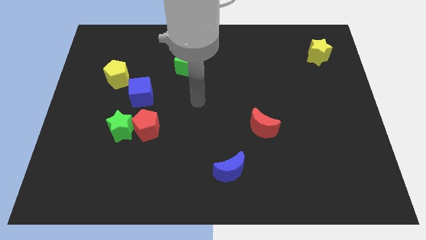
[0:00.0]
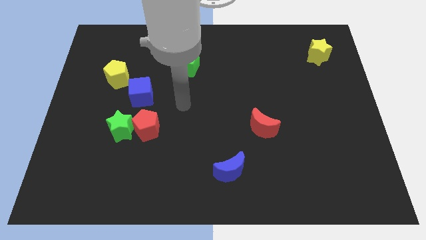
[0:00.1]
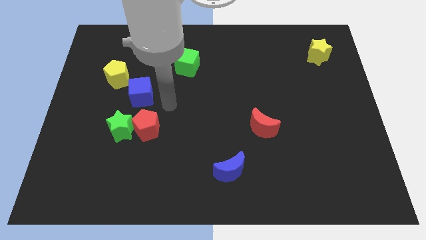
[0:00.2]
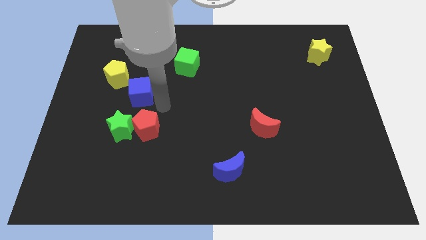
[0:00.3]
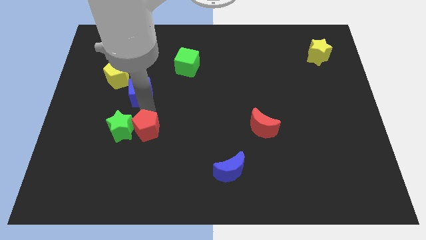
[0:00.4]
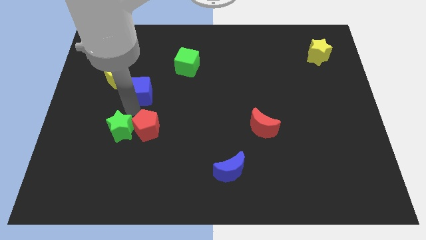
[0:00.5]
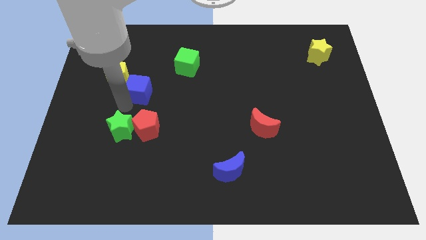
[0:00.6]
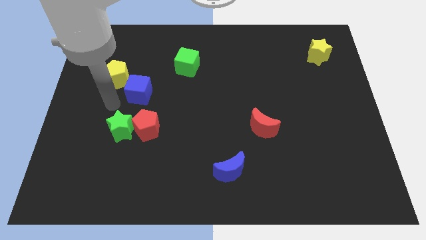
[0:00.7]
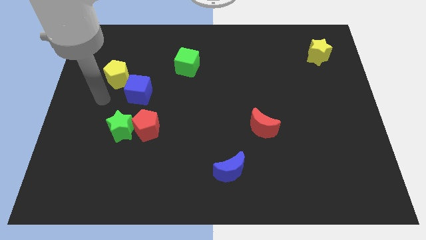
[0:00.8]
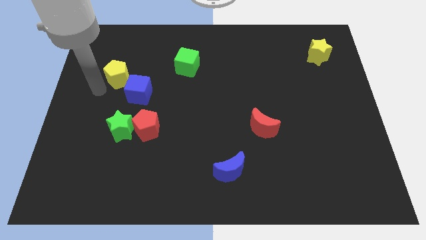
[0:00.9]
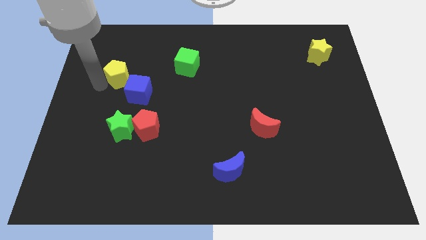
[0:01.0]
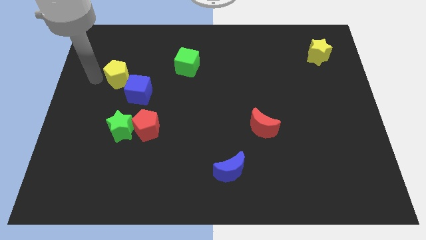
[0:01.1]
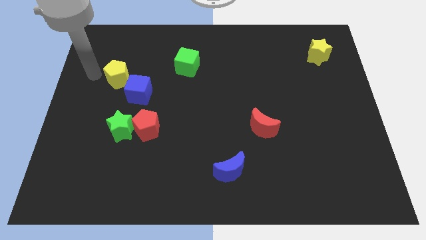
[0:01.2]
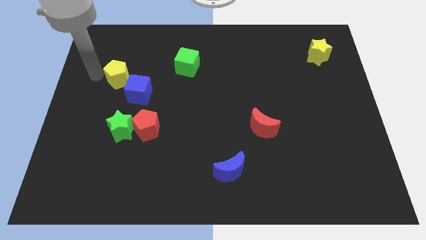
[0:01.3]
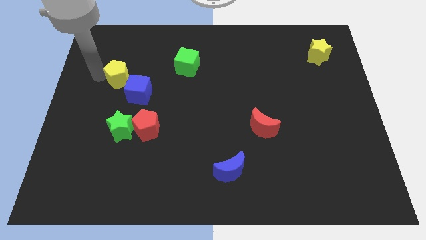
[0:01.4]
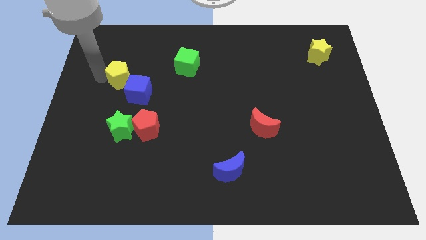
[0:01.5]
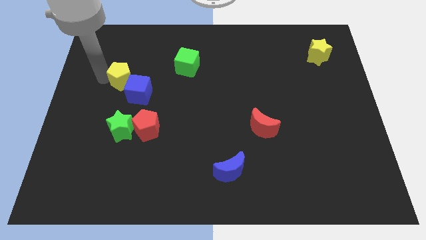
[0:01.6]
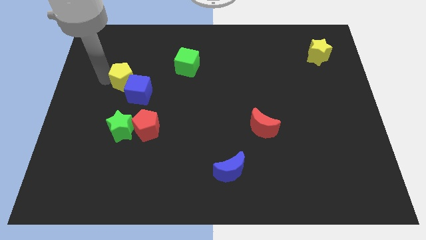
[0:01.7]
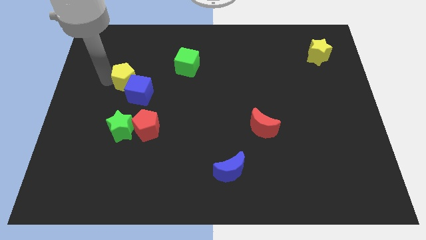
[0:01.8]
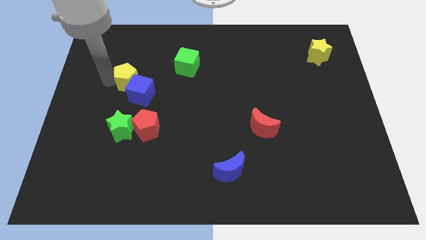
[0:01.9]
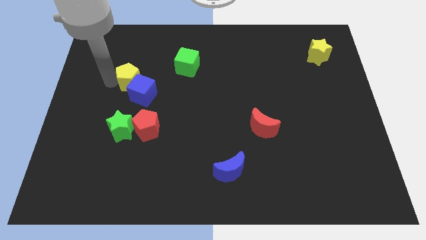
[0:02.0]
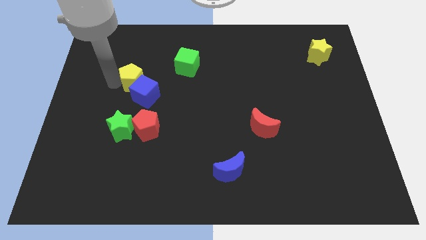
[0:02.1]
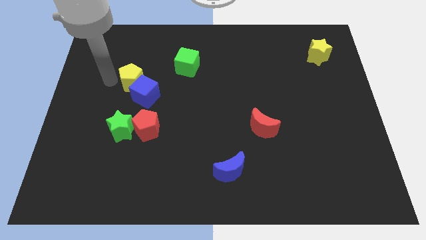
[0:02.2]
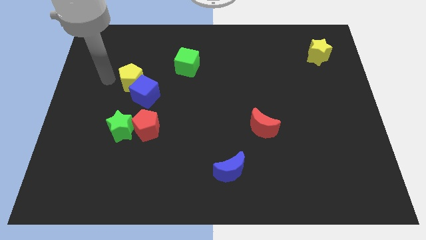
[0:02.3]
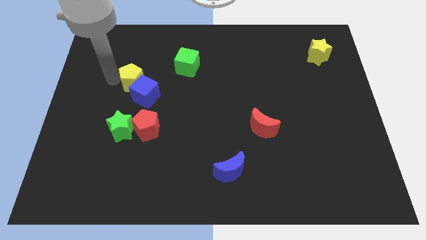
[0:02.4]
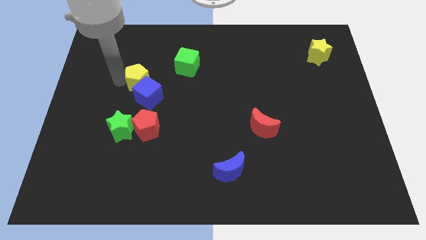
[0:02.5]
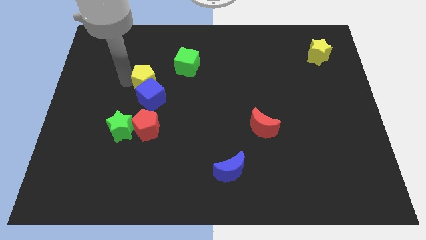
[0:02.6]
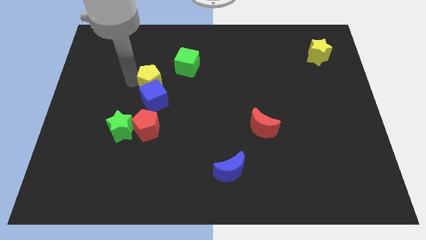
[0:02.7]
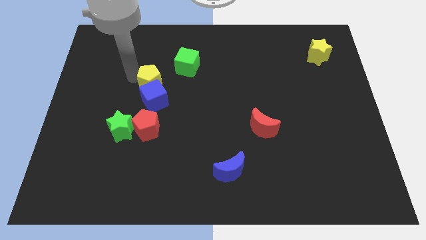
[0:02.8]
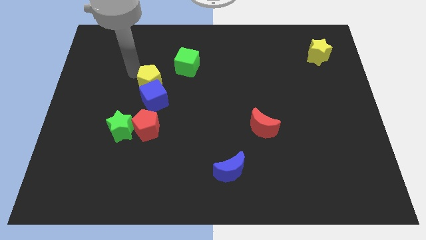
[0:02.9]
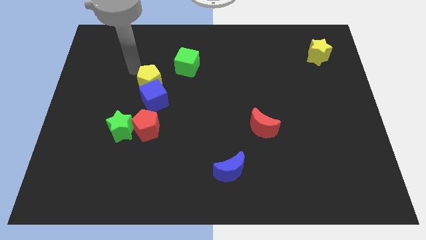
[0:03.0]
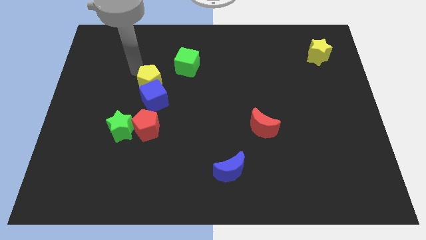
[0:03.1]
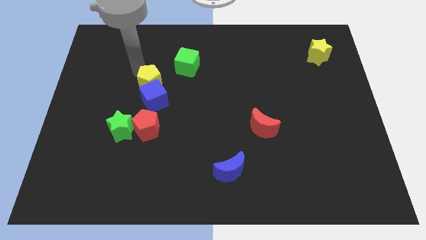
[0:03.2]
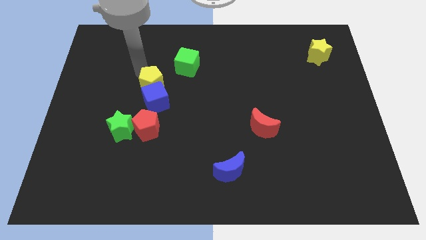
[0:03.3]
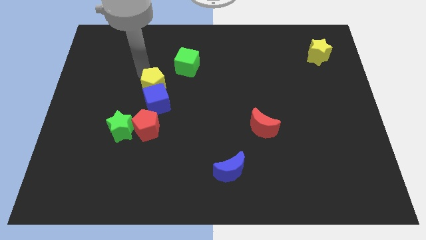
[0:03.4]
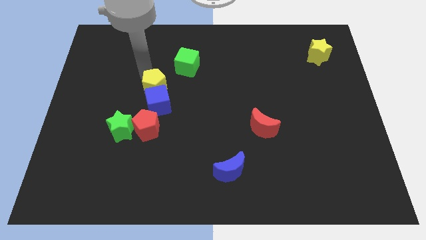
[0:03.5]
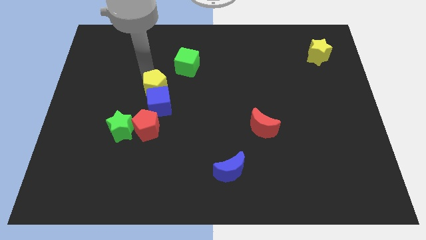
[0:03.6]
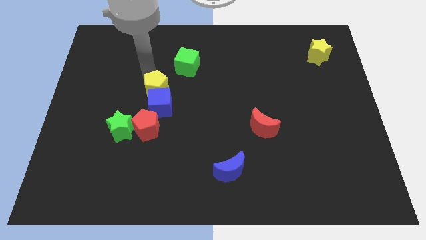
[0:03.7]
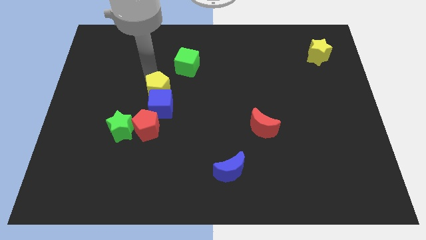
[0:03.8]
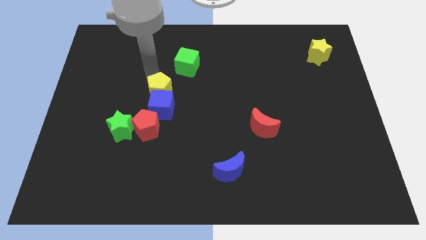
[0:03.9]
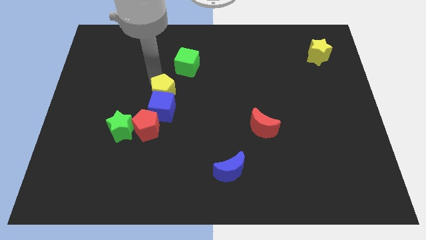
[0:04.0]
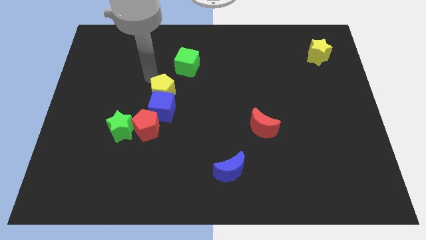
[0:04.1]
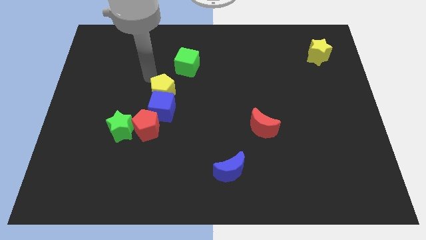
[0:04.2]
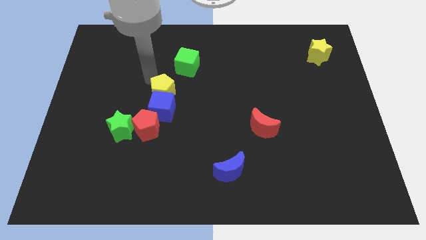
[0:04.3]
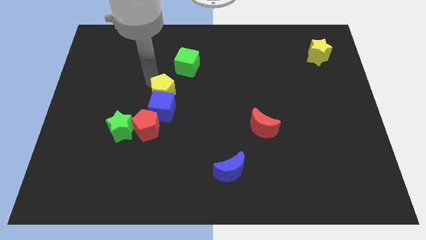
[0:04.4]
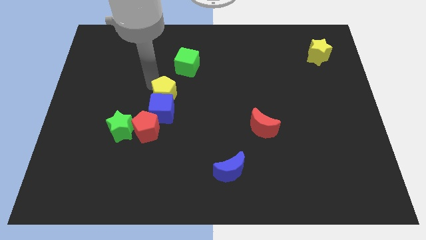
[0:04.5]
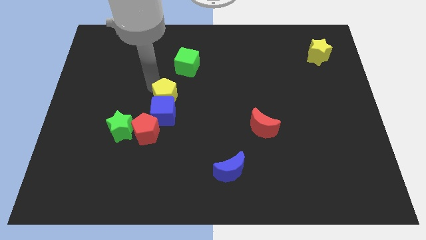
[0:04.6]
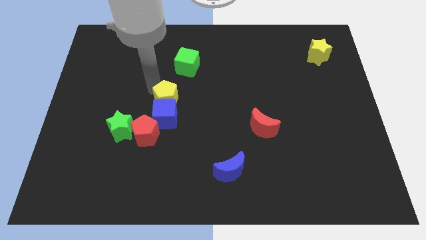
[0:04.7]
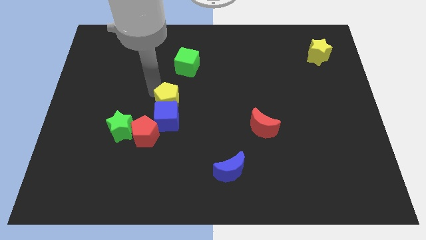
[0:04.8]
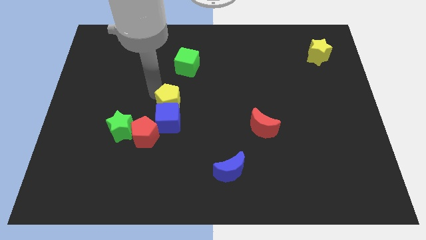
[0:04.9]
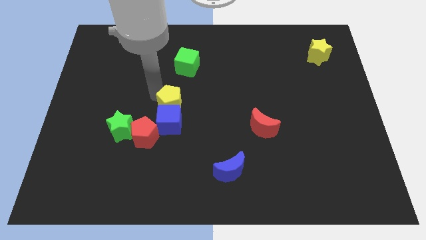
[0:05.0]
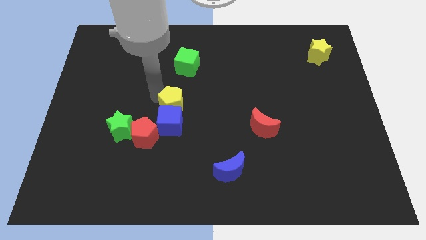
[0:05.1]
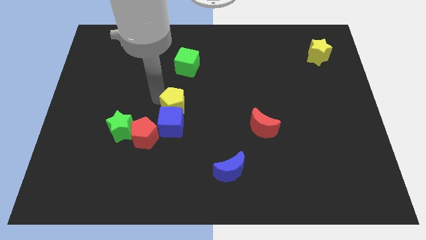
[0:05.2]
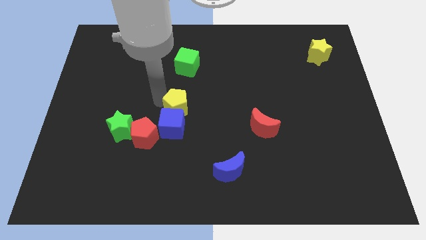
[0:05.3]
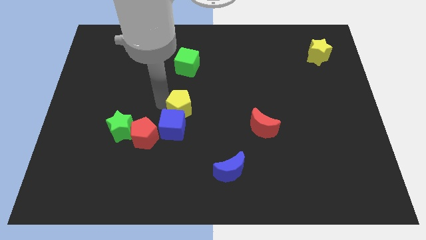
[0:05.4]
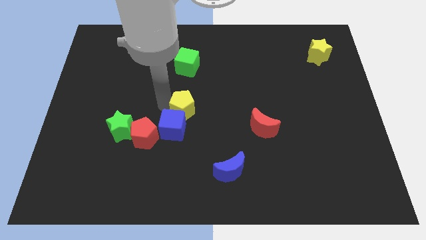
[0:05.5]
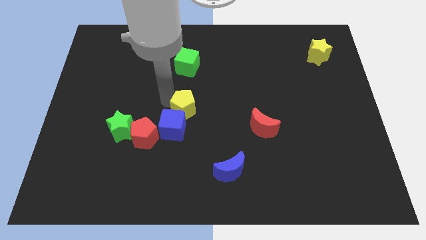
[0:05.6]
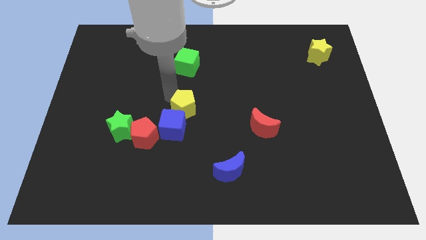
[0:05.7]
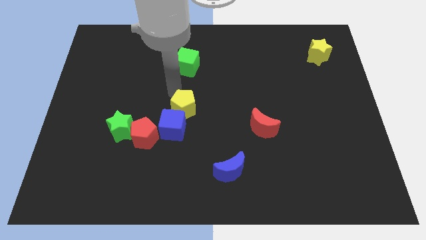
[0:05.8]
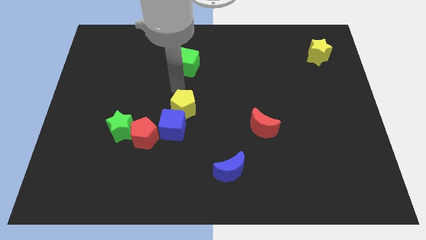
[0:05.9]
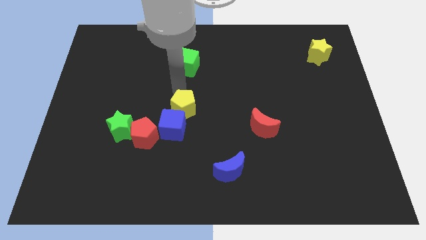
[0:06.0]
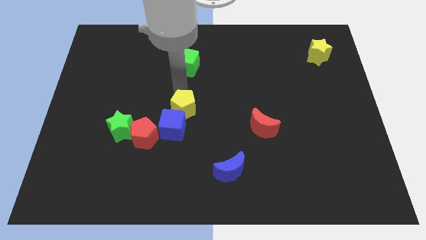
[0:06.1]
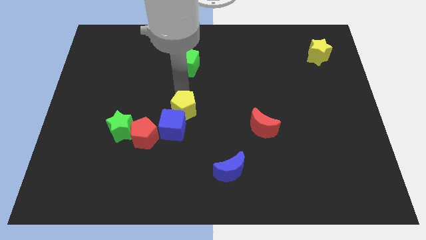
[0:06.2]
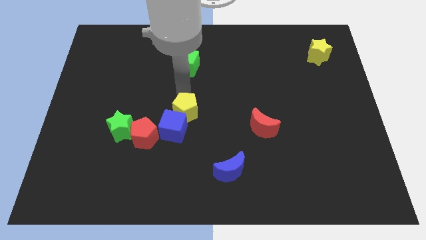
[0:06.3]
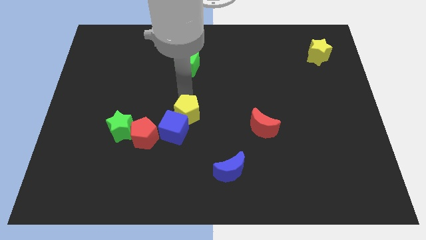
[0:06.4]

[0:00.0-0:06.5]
push the yellow pentagon downwards and right

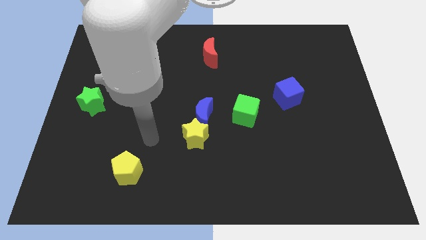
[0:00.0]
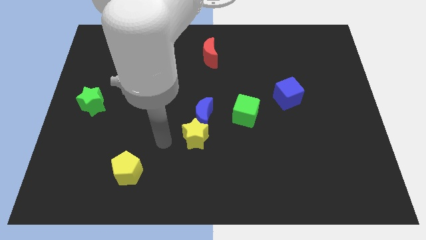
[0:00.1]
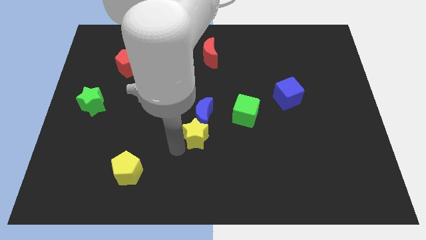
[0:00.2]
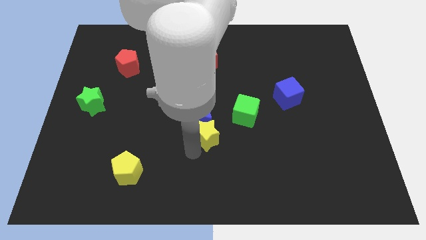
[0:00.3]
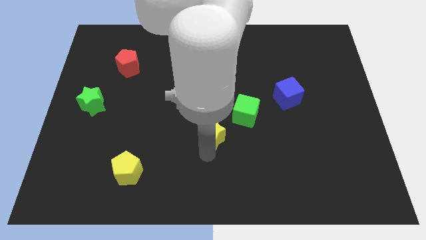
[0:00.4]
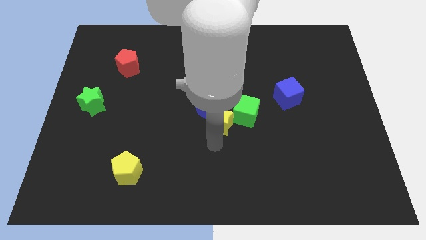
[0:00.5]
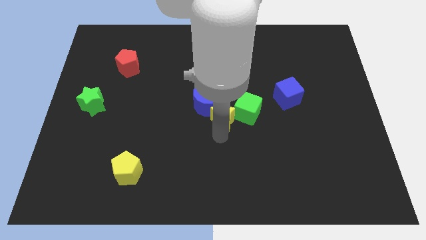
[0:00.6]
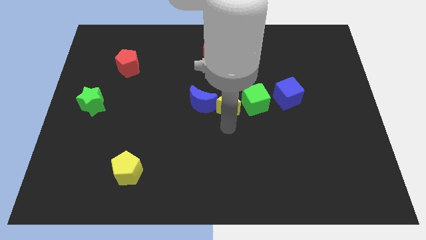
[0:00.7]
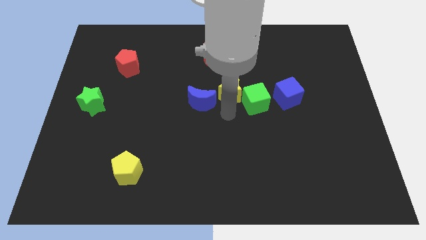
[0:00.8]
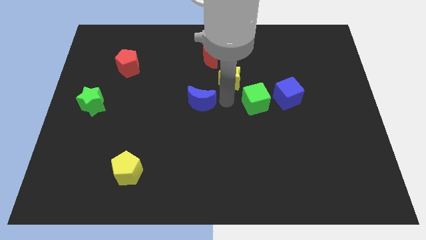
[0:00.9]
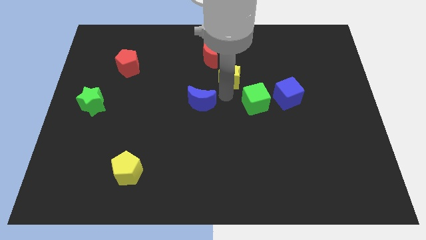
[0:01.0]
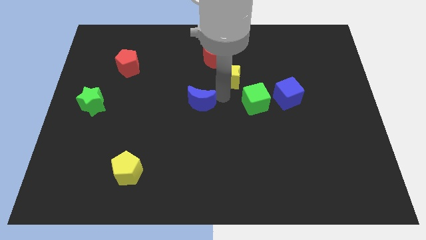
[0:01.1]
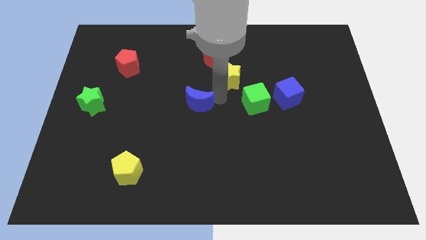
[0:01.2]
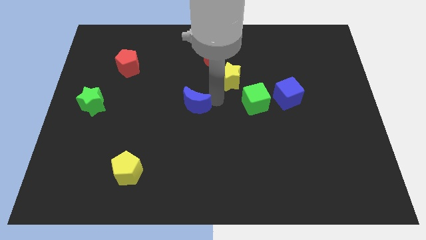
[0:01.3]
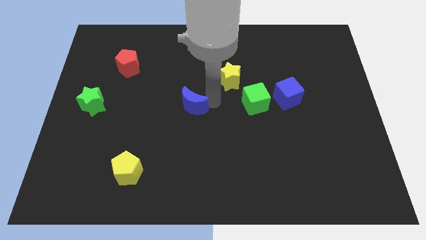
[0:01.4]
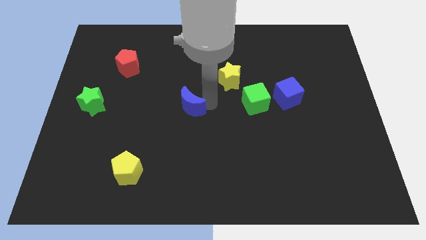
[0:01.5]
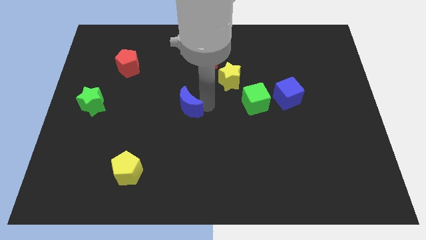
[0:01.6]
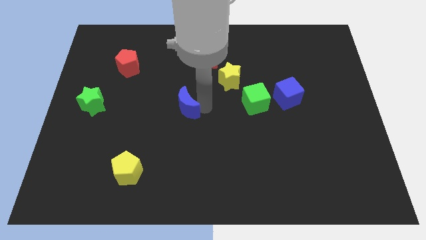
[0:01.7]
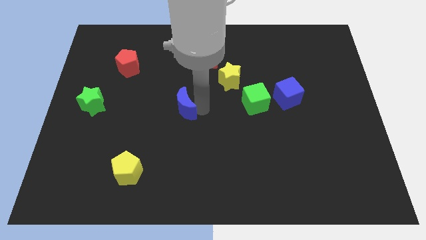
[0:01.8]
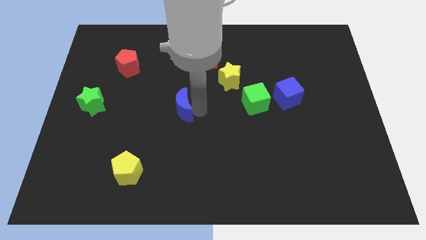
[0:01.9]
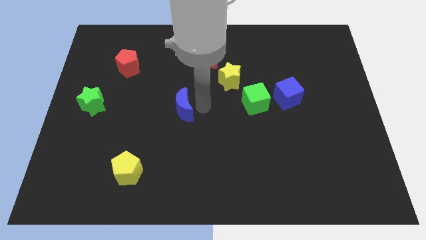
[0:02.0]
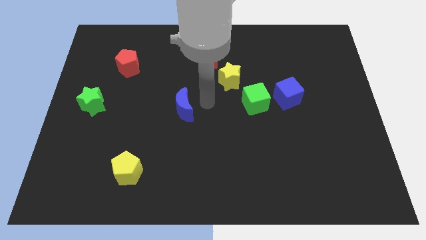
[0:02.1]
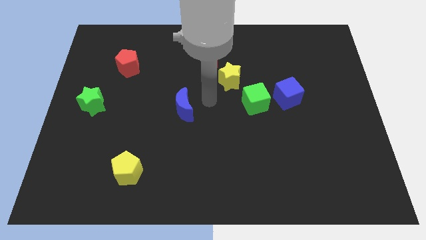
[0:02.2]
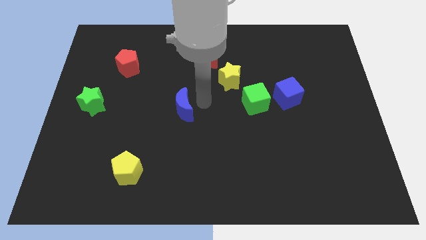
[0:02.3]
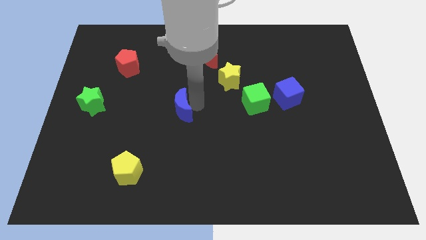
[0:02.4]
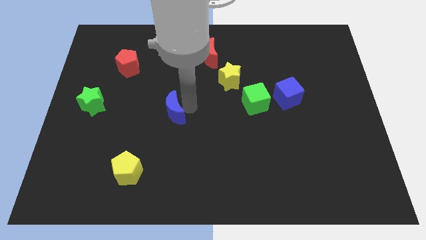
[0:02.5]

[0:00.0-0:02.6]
push the blue moon a bit to the left
